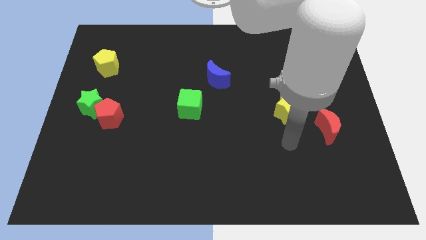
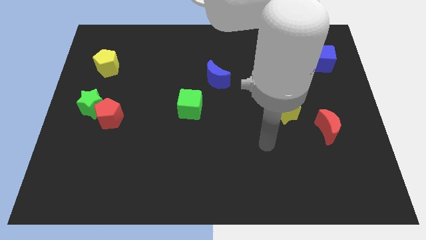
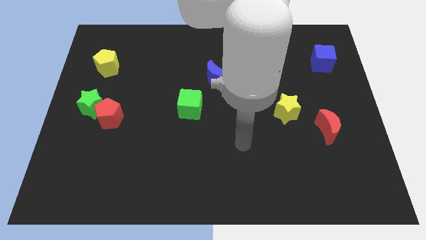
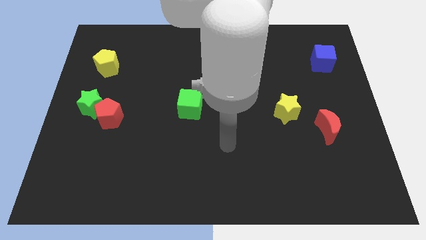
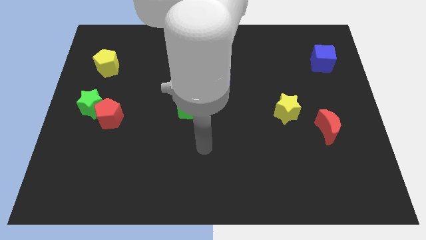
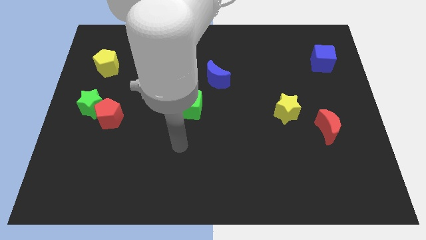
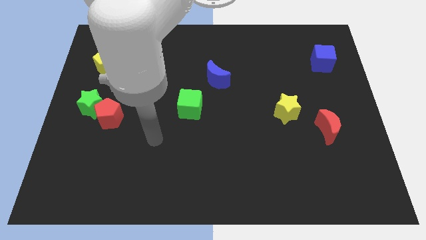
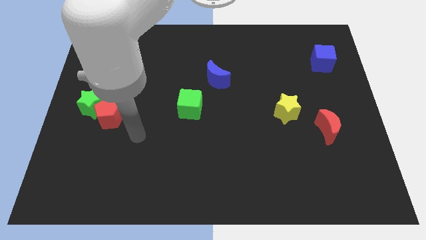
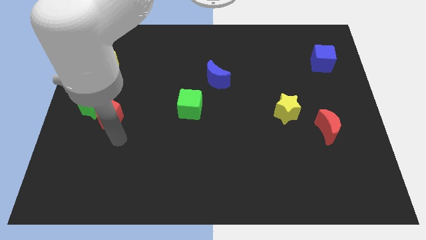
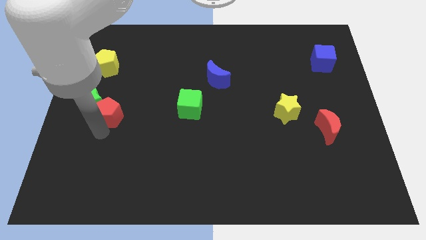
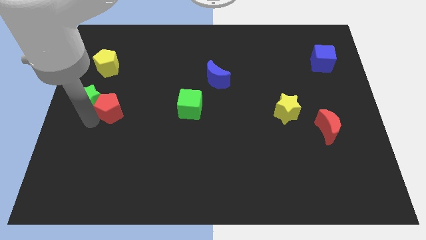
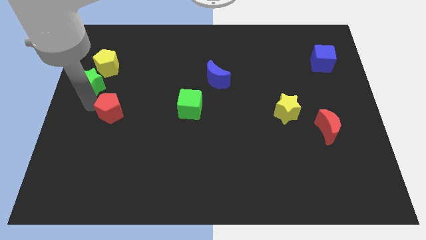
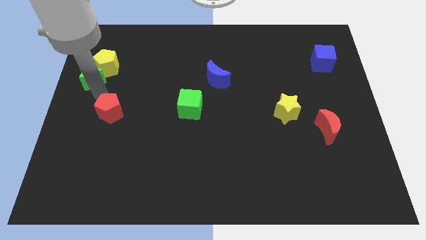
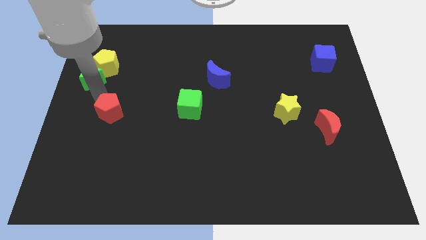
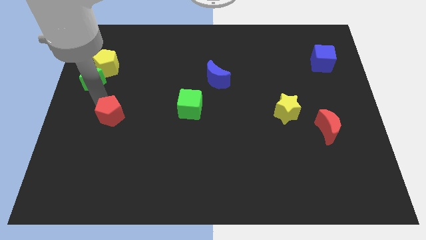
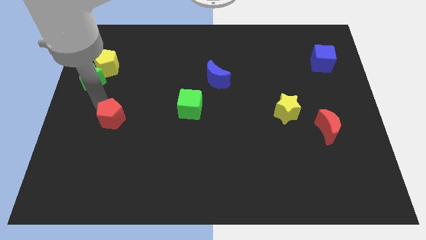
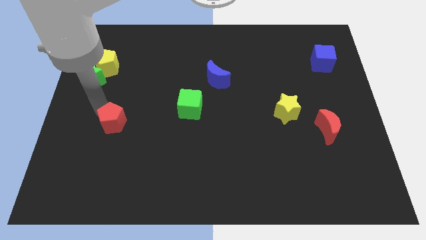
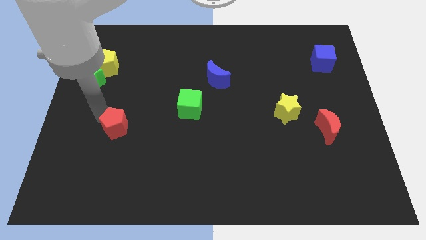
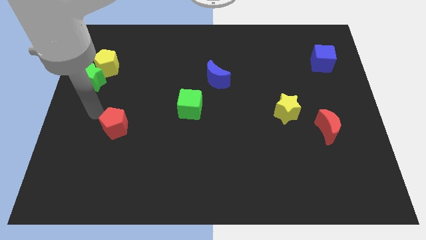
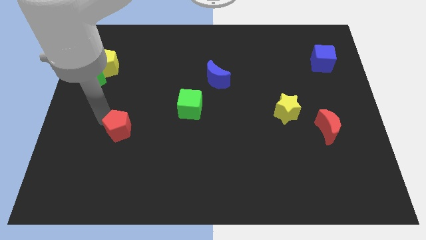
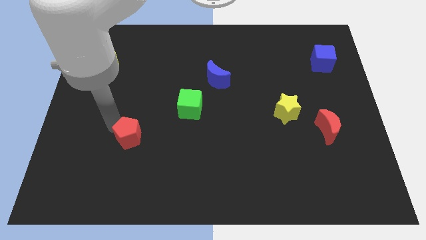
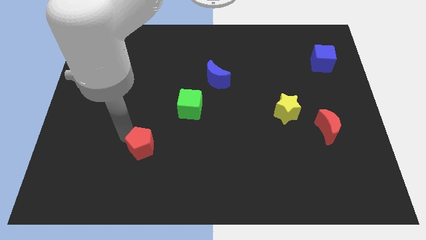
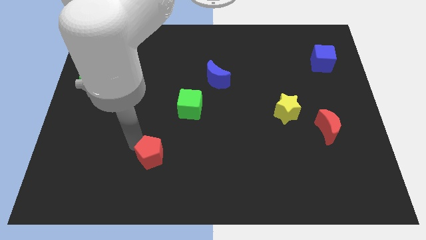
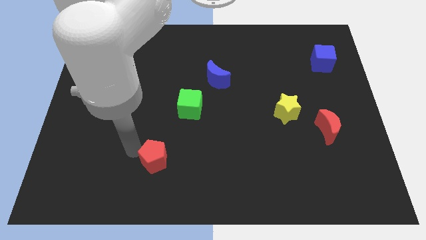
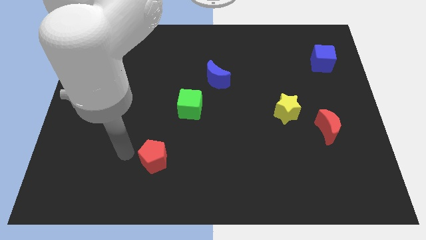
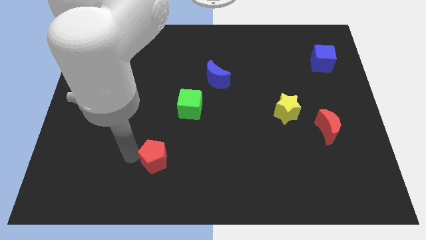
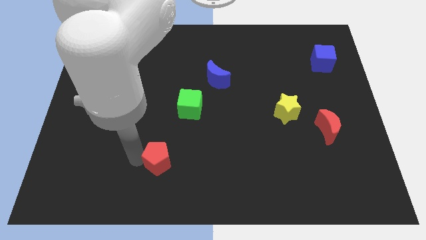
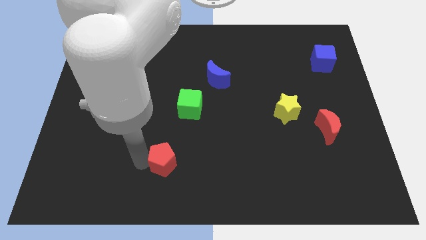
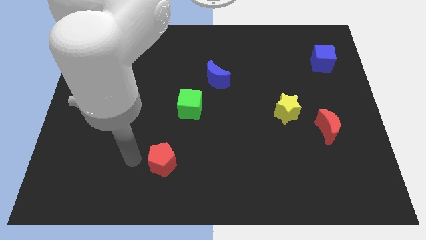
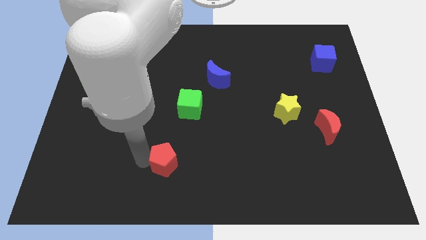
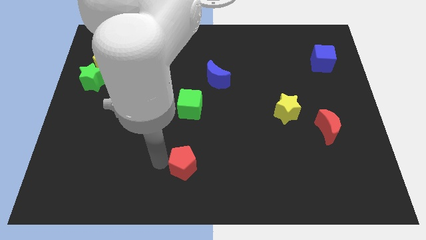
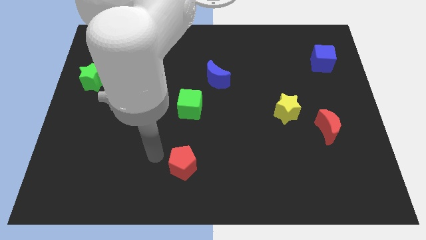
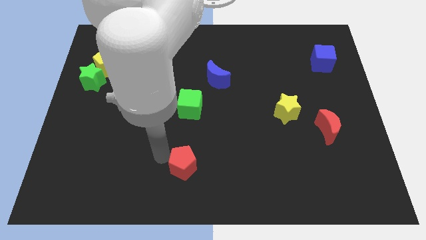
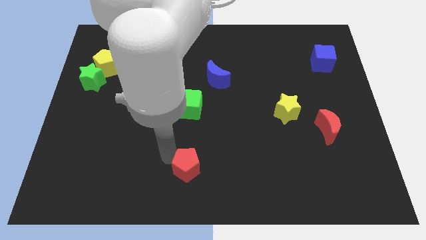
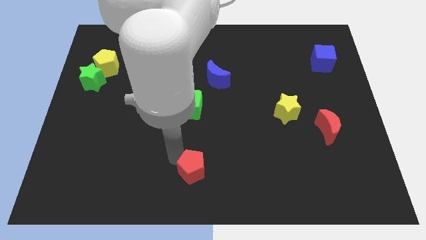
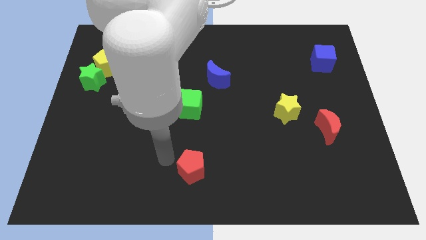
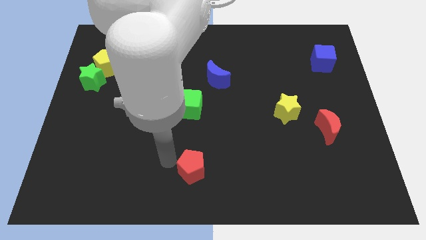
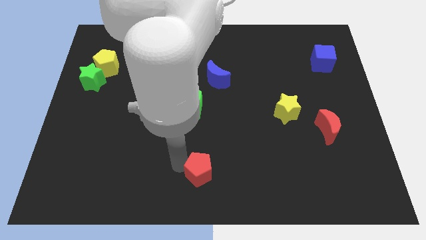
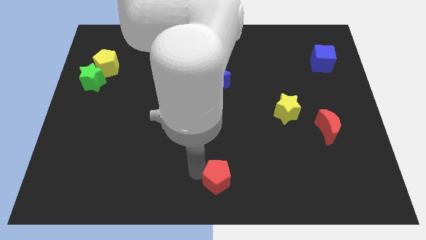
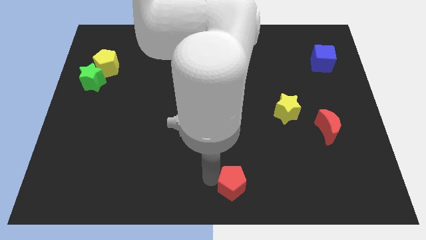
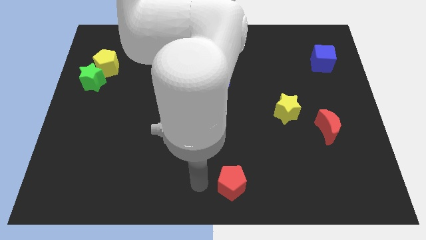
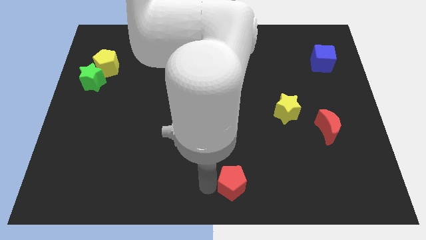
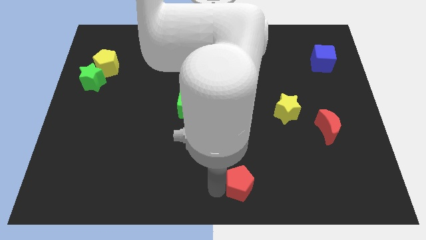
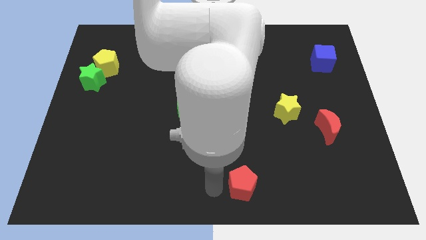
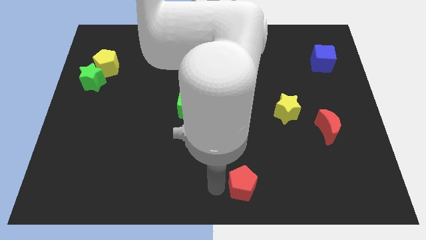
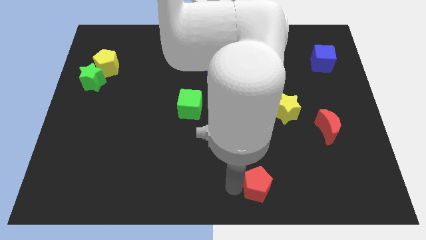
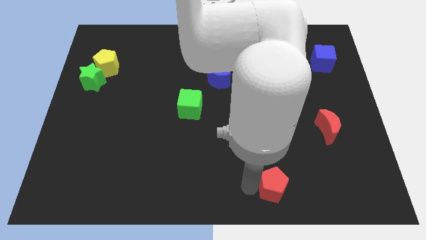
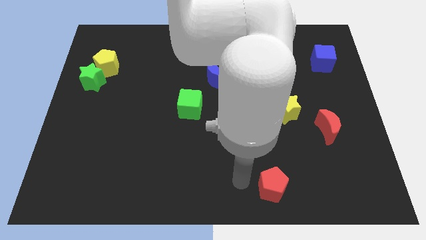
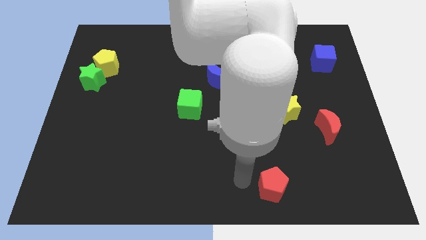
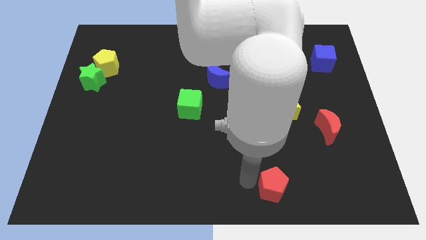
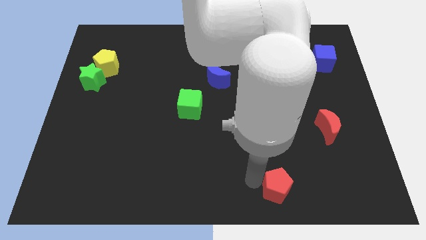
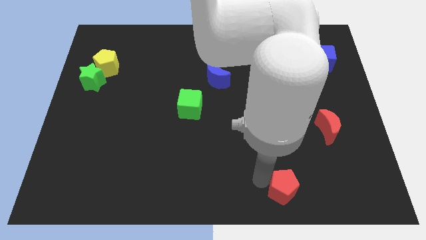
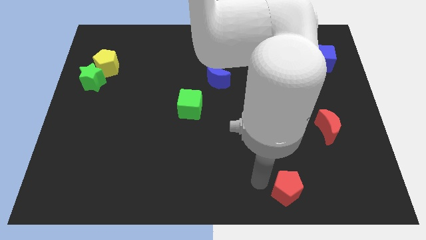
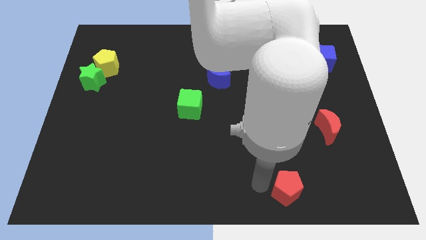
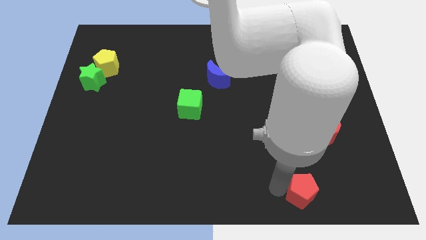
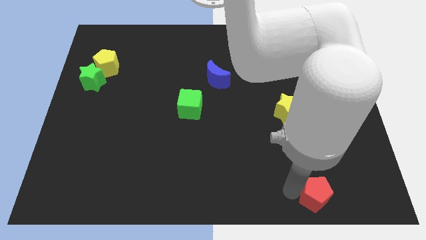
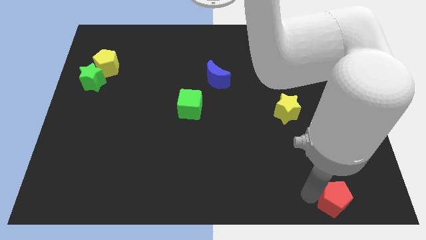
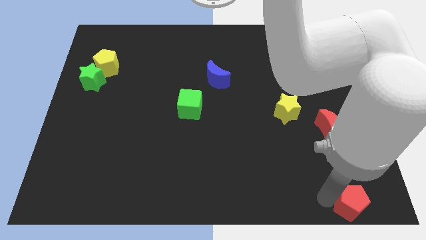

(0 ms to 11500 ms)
move the red pentagon to the bottom right of the board

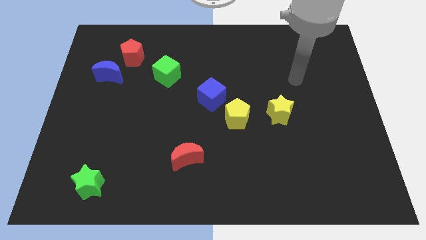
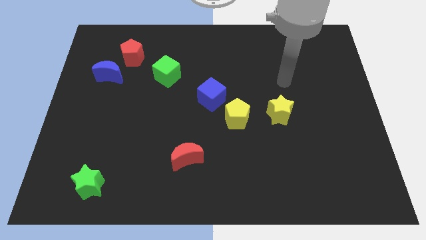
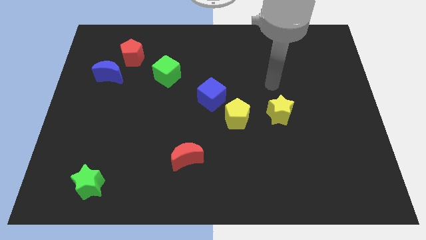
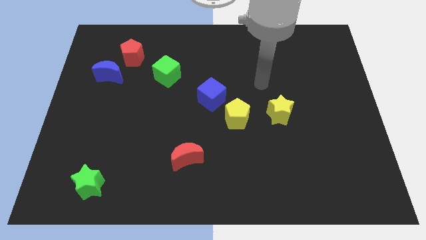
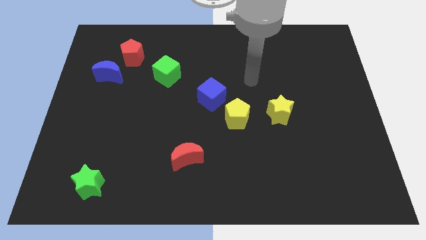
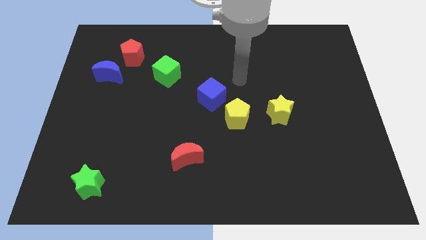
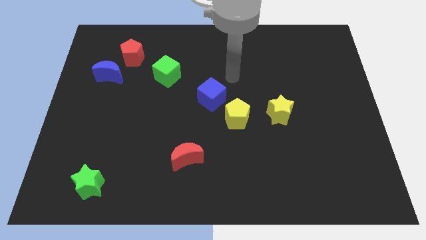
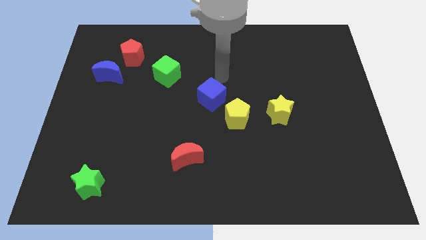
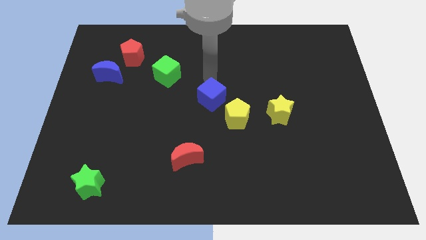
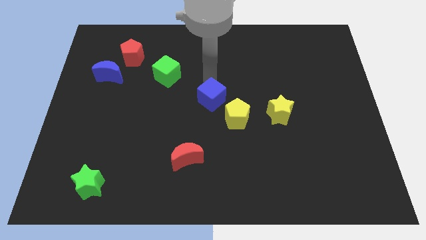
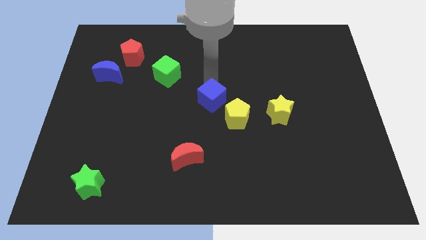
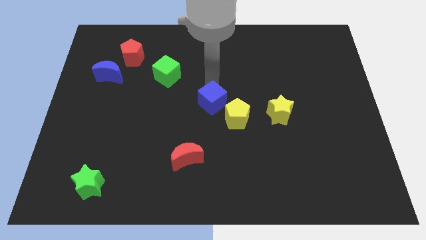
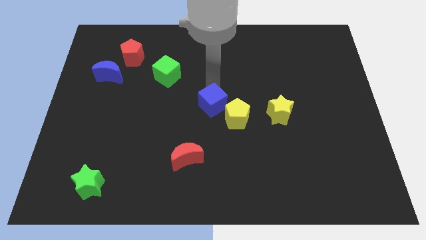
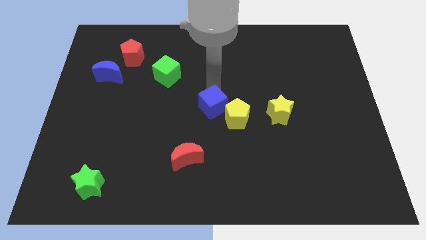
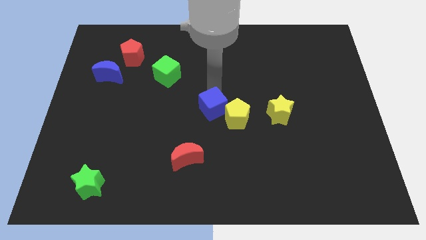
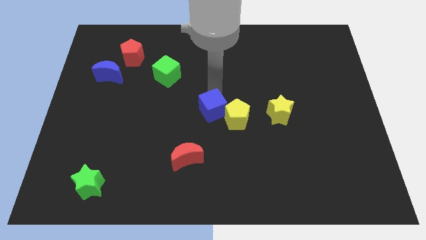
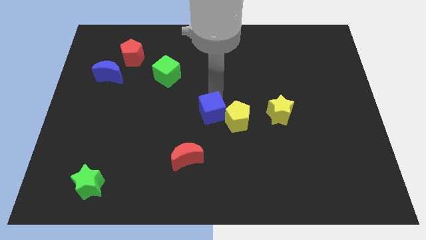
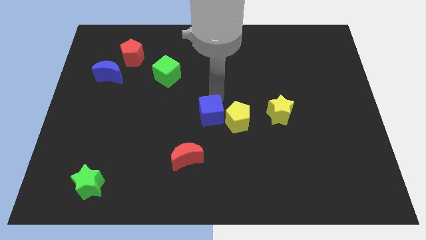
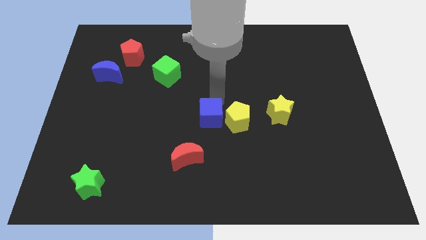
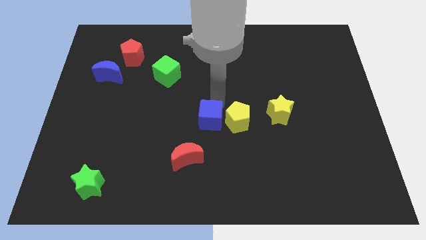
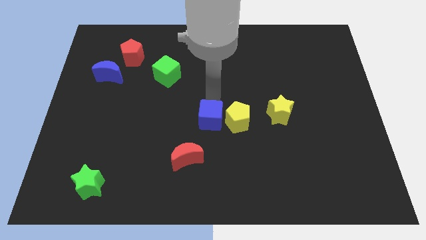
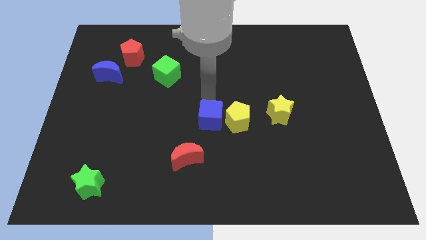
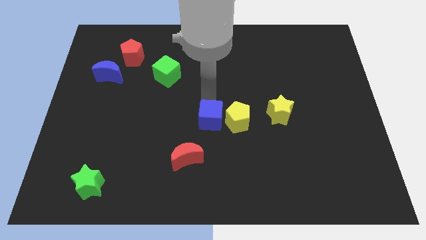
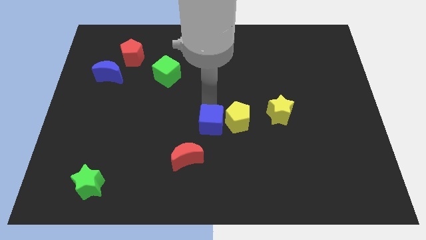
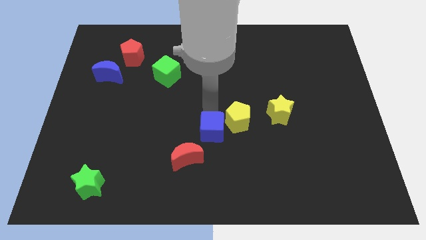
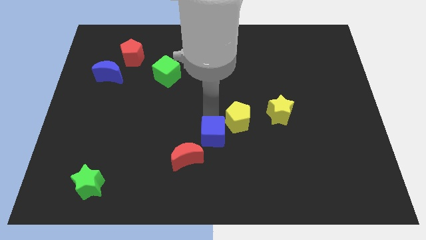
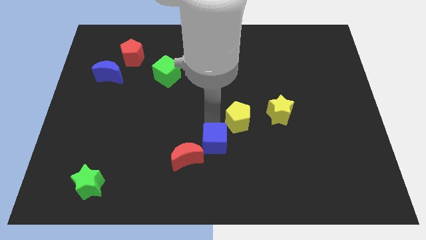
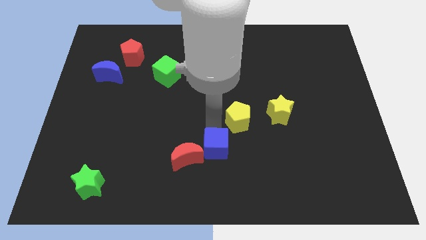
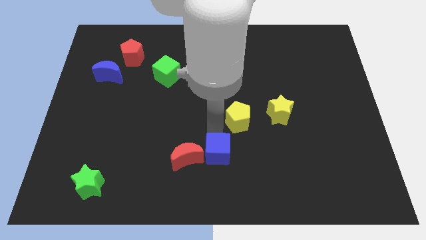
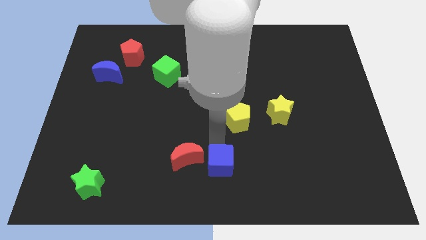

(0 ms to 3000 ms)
move the blue cube to the bottom
